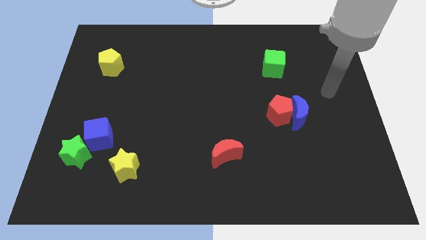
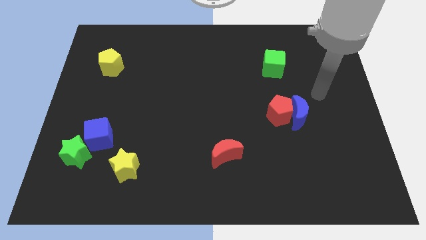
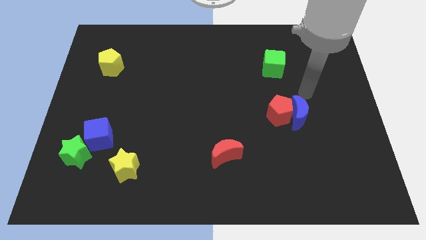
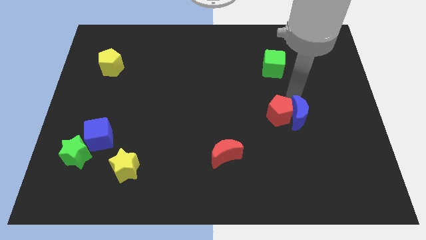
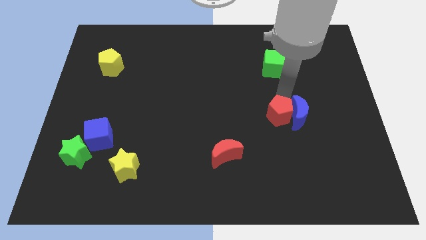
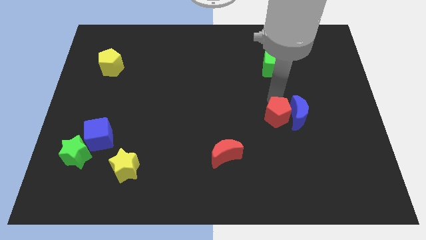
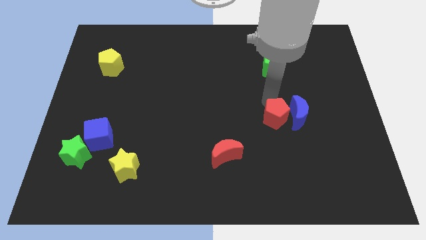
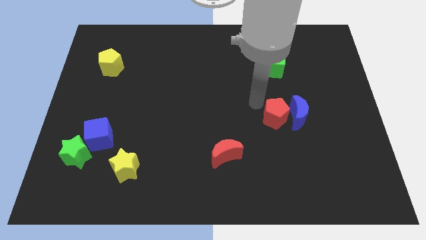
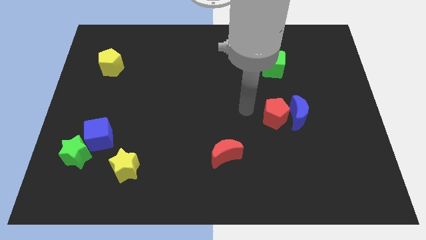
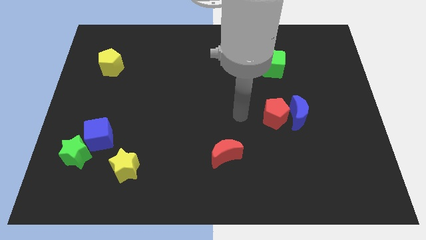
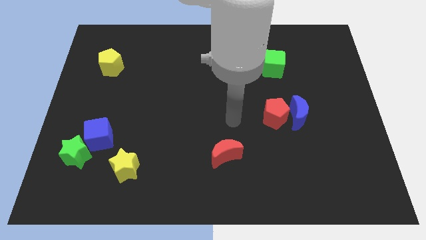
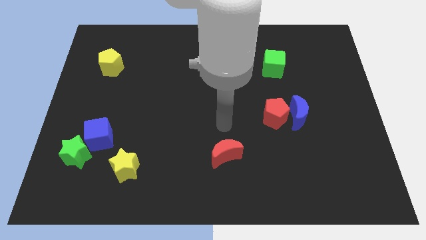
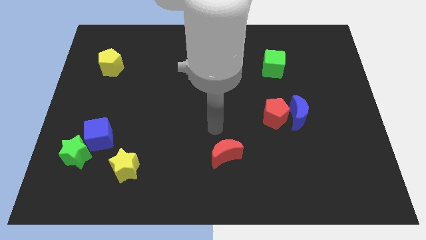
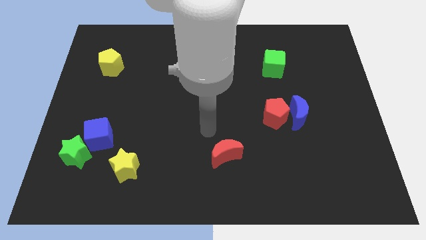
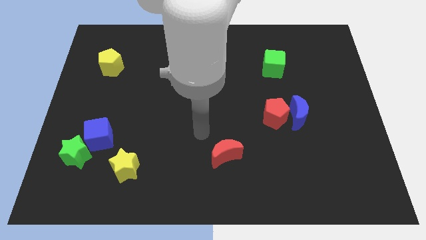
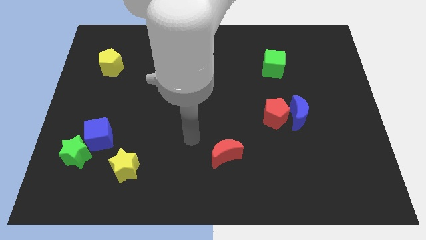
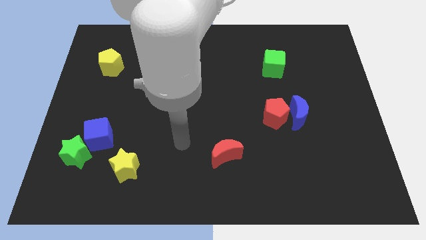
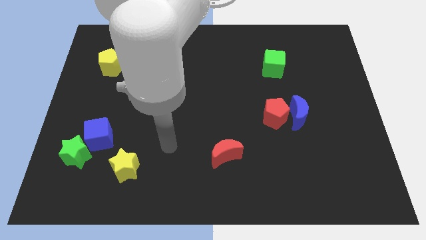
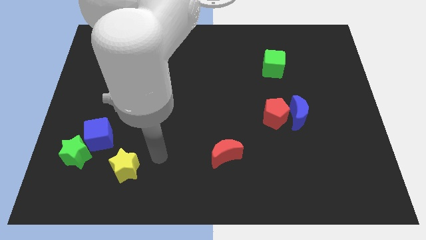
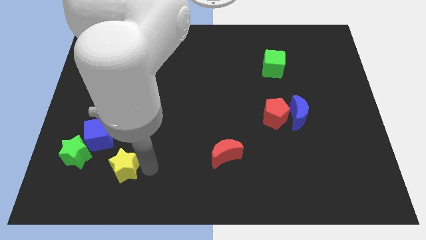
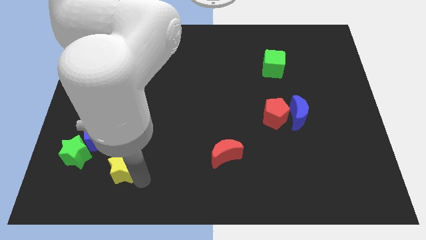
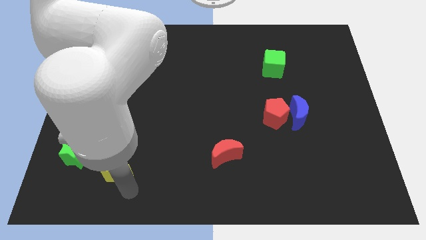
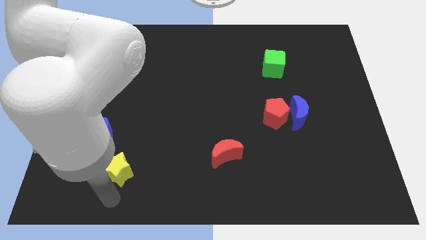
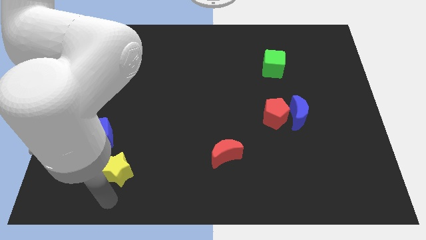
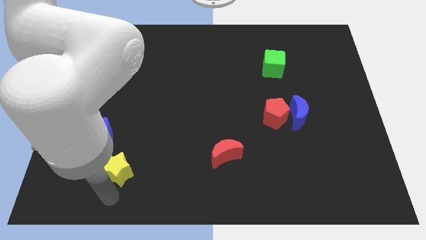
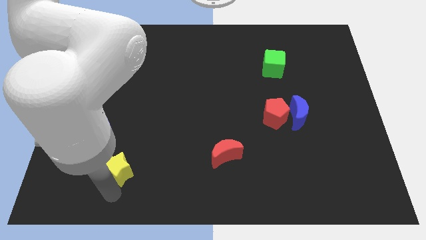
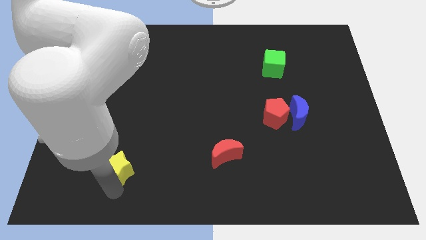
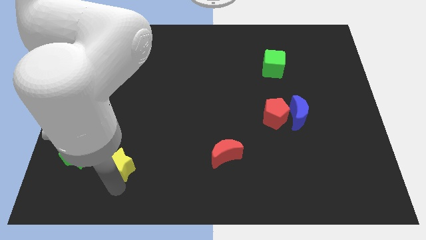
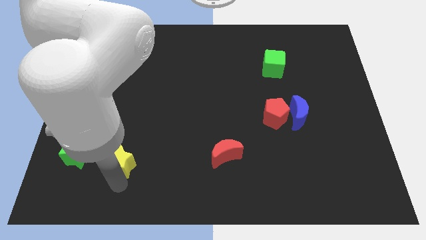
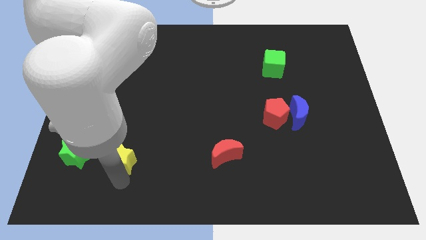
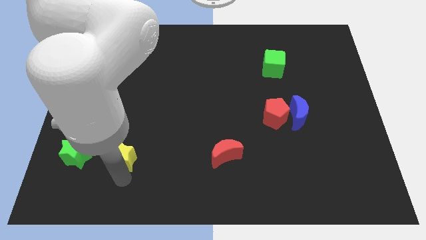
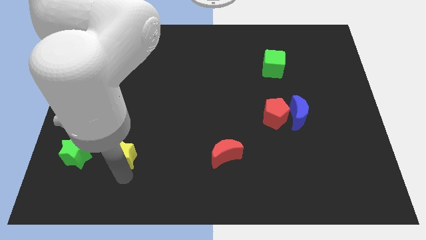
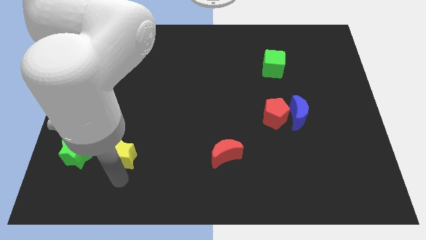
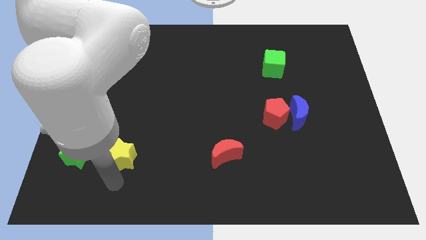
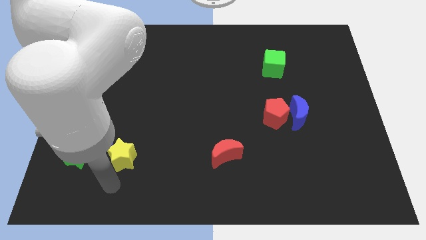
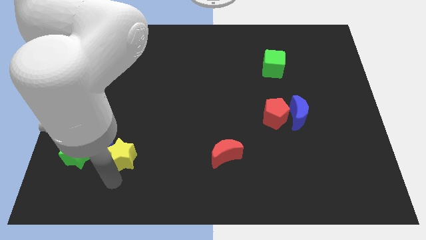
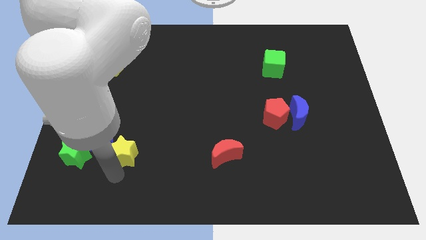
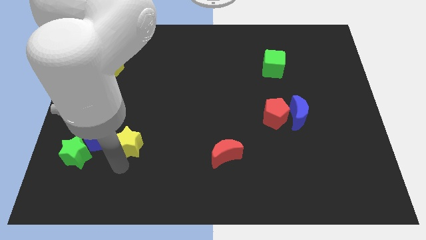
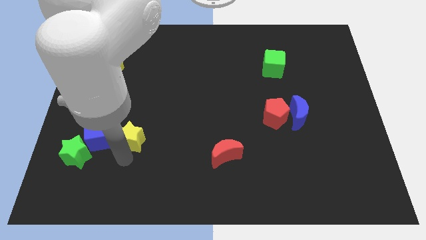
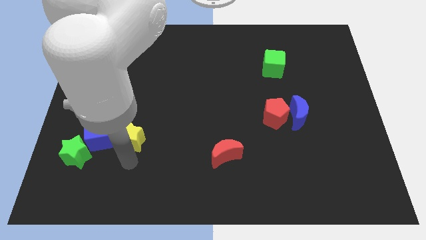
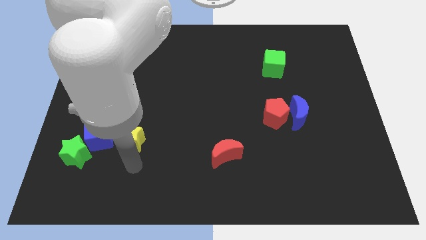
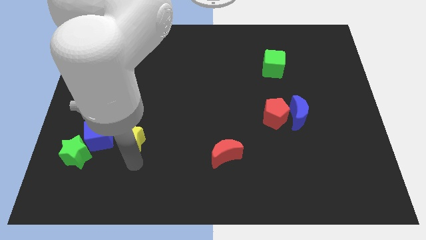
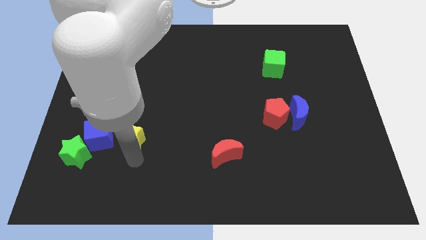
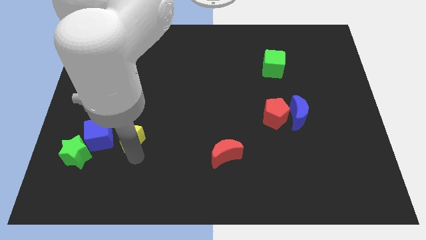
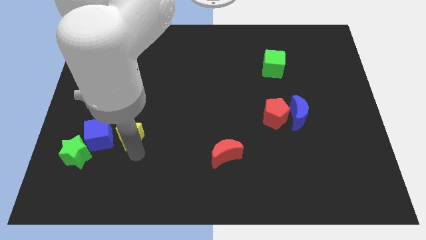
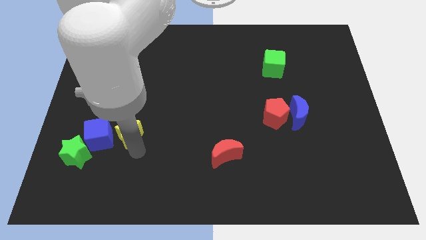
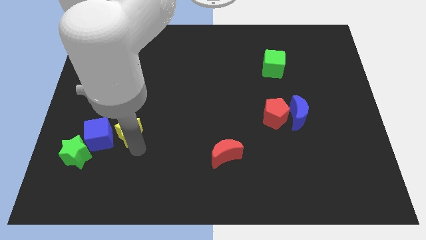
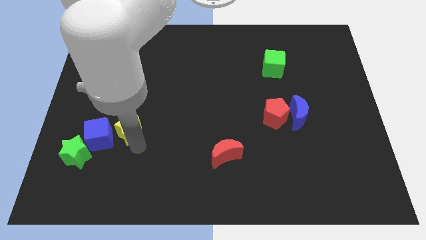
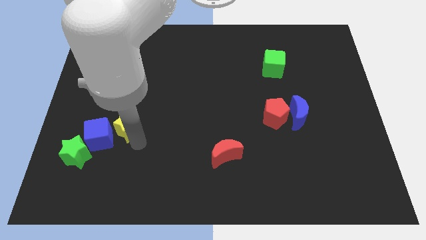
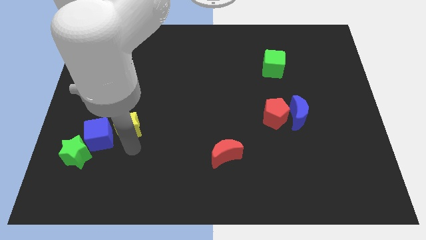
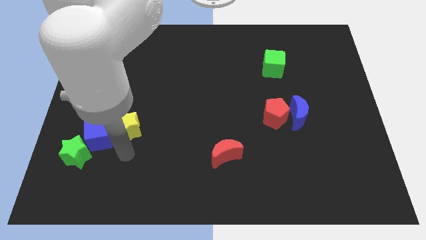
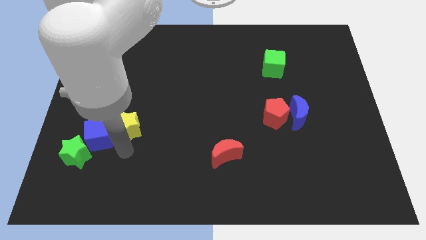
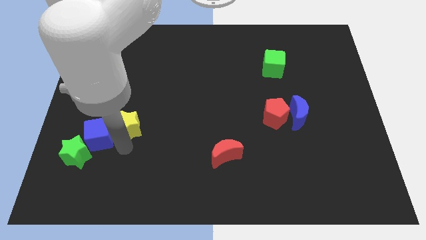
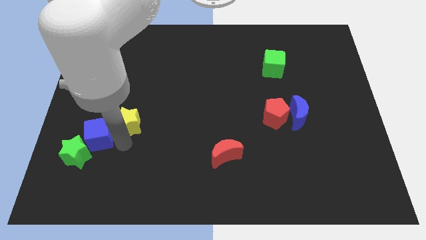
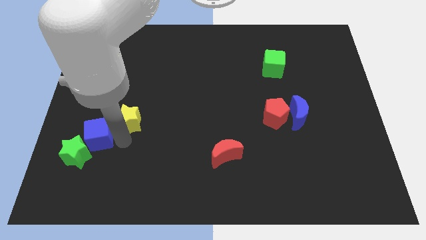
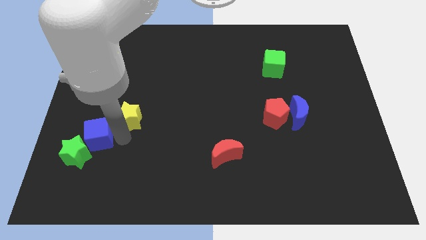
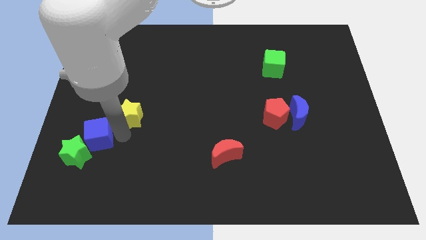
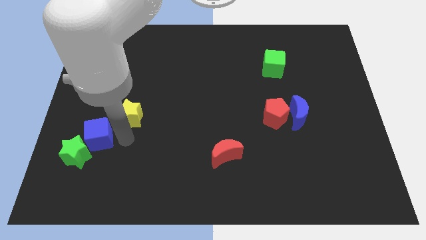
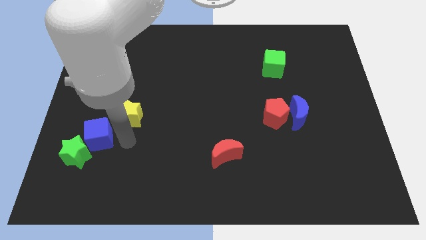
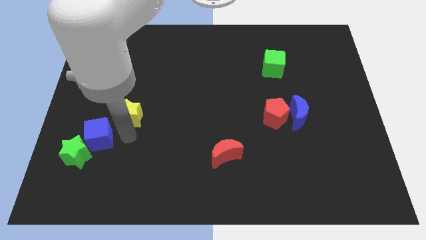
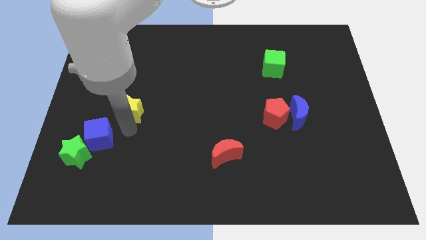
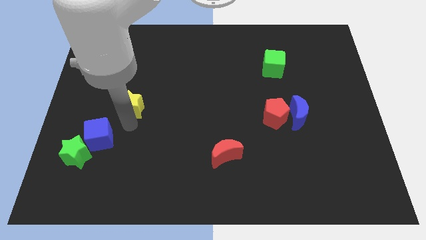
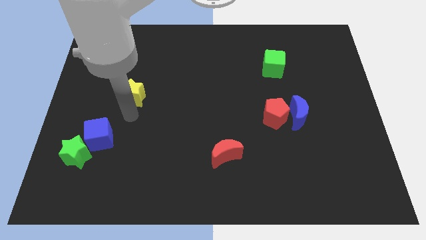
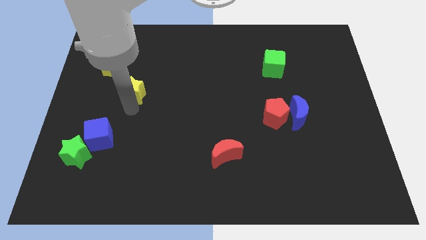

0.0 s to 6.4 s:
push the yellow star upwards

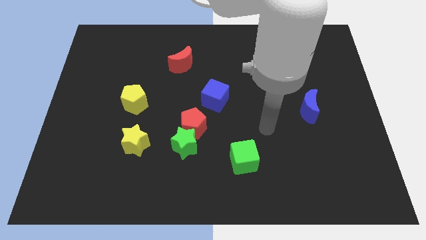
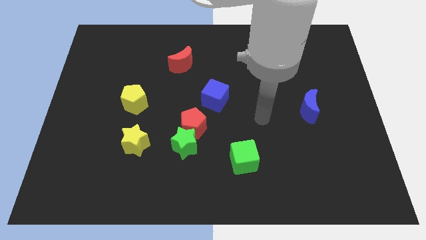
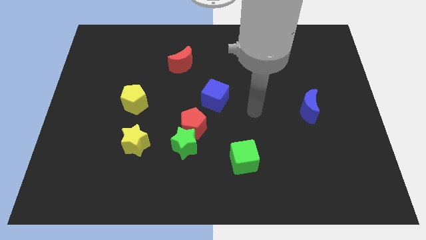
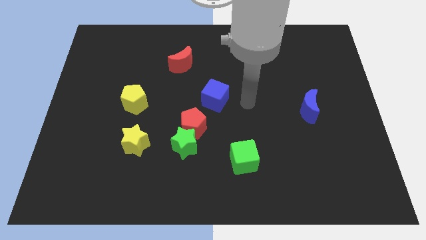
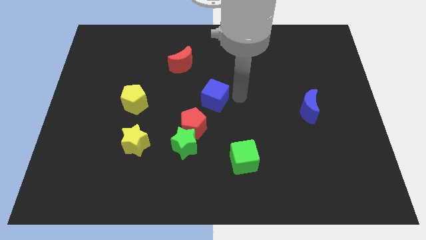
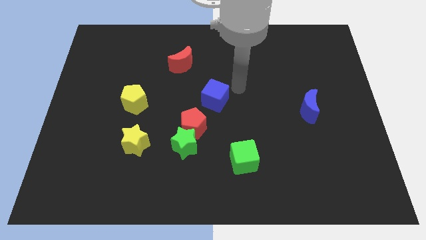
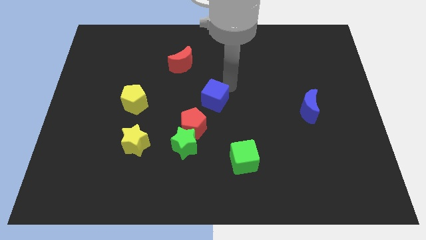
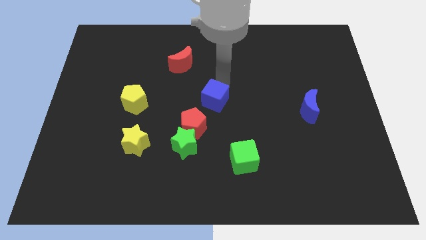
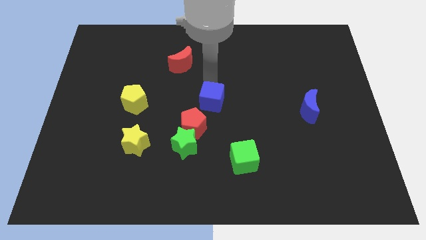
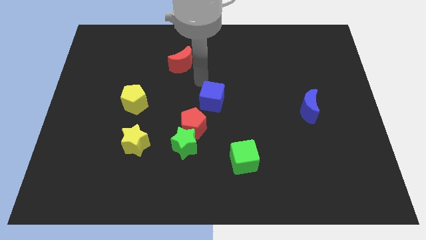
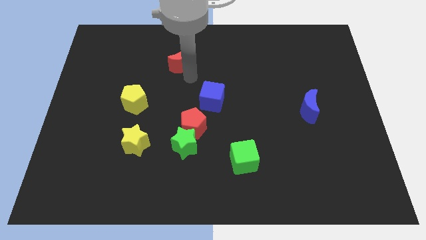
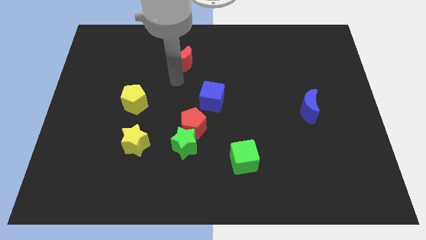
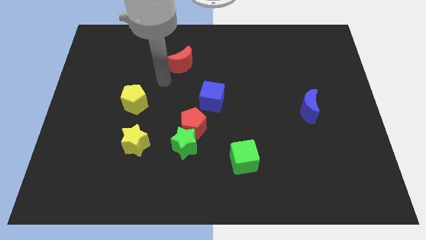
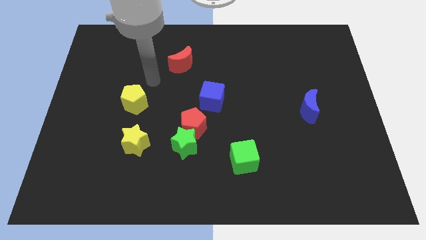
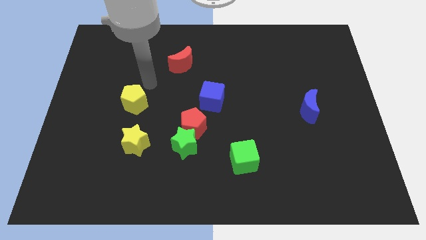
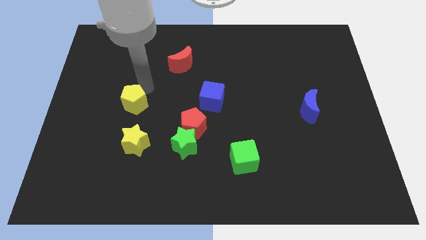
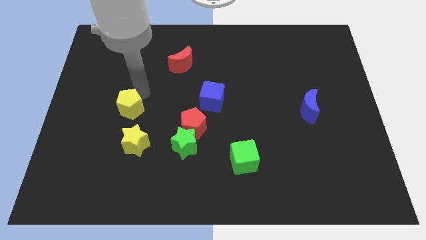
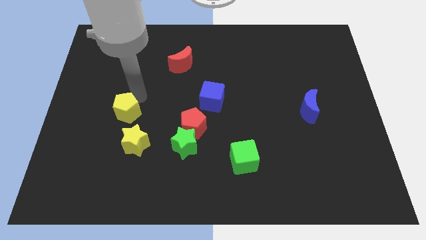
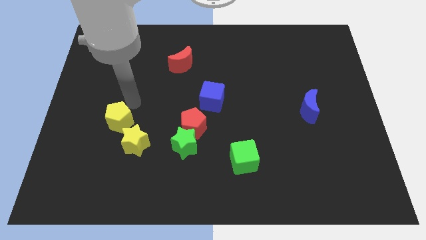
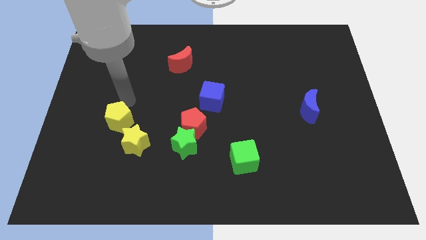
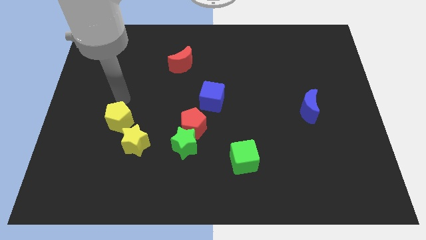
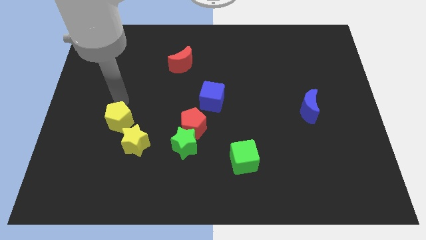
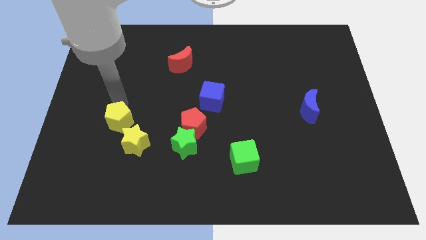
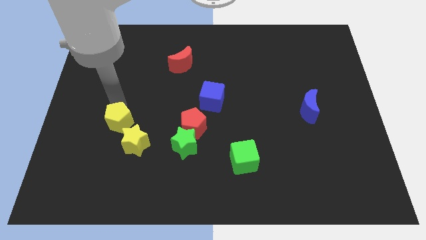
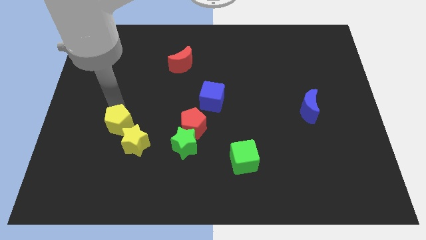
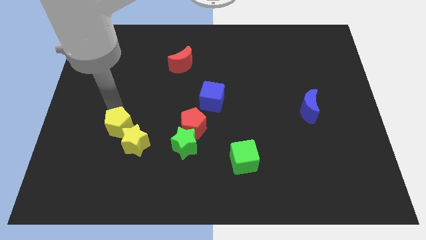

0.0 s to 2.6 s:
slightly slide the yellow pentagon downwards
